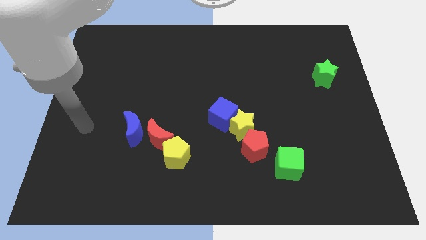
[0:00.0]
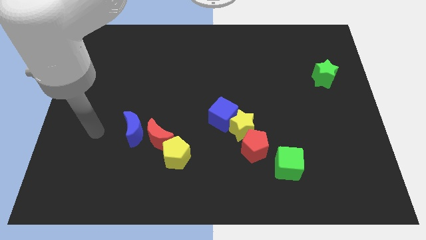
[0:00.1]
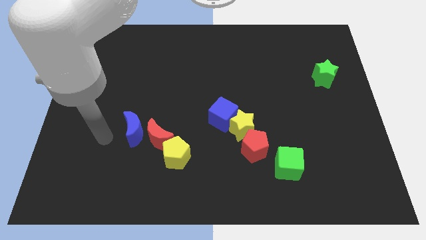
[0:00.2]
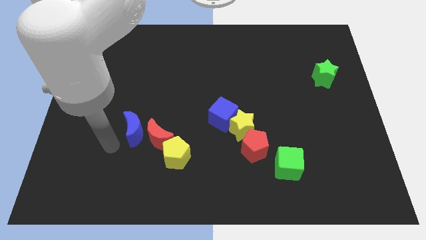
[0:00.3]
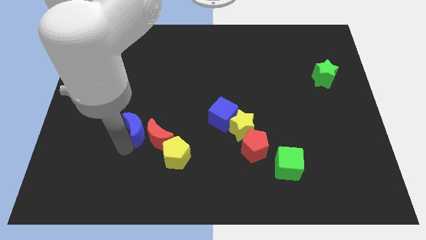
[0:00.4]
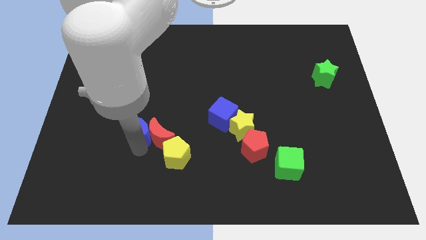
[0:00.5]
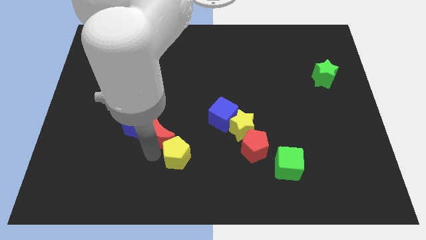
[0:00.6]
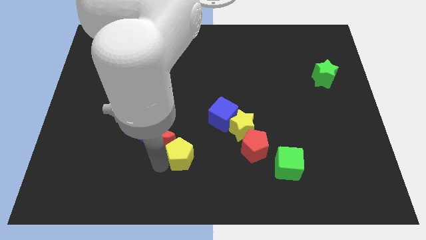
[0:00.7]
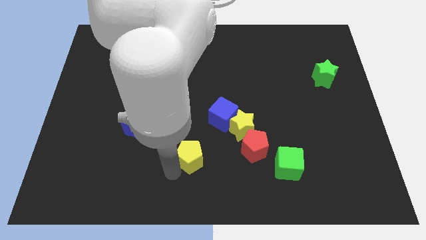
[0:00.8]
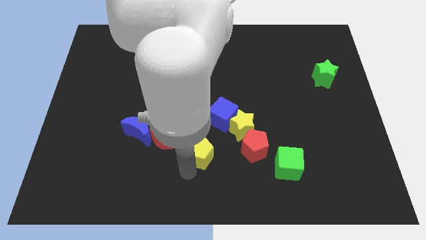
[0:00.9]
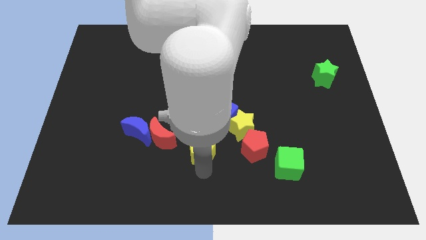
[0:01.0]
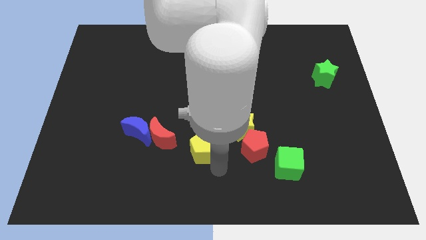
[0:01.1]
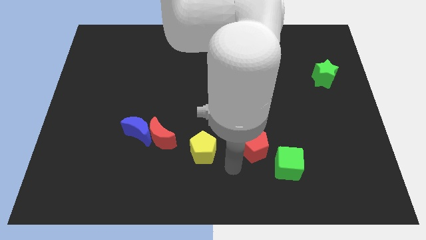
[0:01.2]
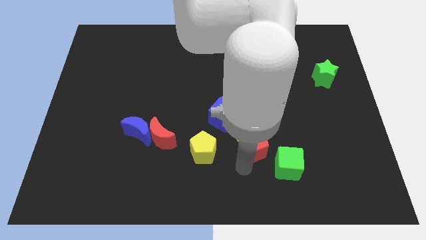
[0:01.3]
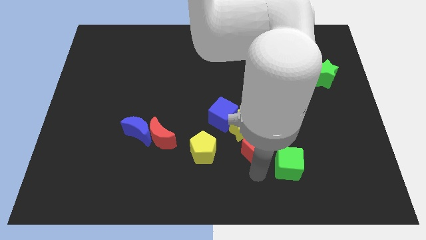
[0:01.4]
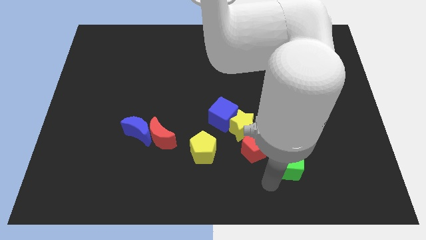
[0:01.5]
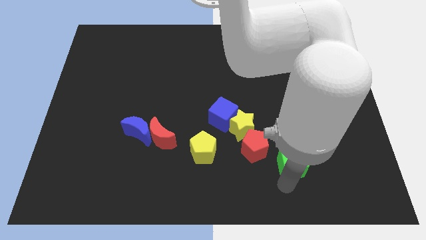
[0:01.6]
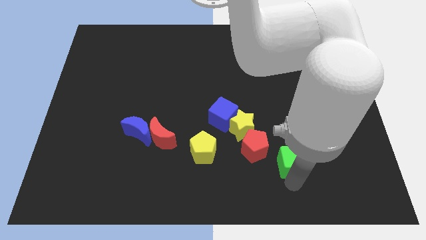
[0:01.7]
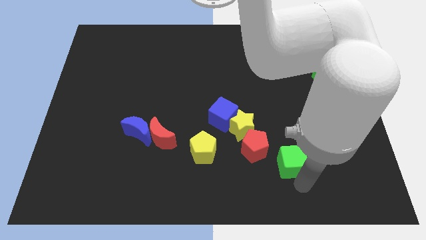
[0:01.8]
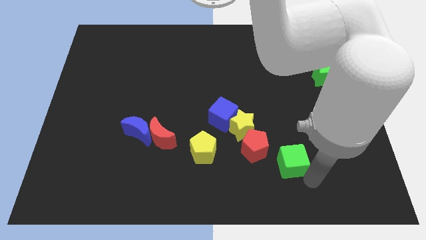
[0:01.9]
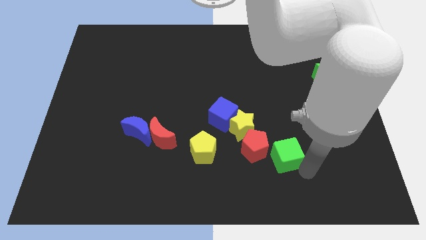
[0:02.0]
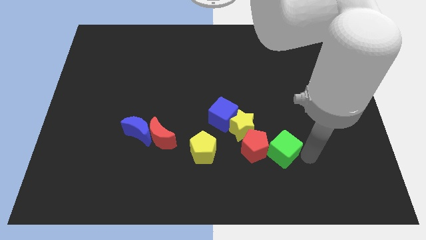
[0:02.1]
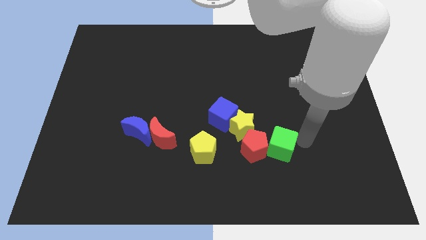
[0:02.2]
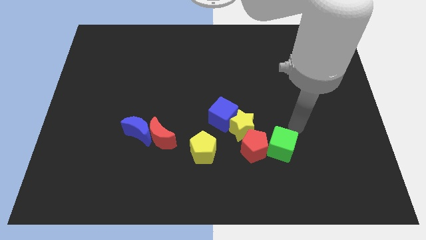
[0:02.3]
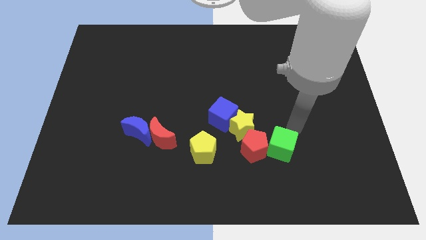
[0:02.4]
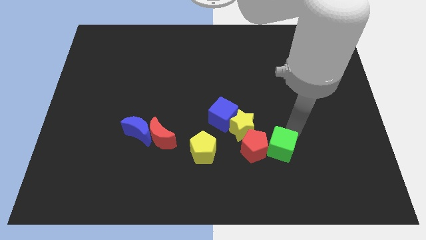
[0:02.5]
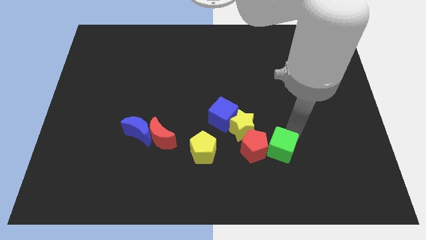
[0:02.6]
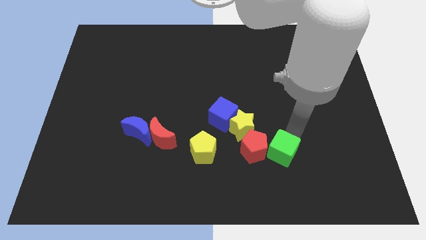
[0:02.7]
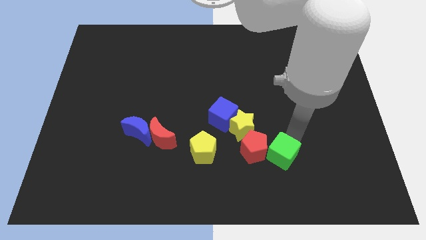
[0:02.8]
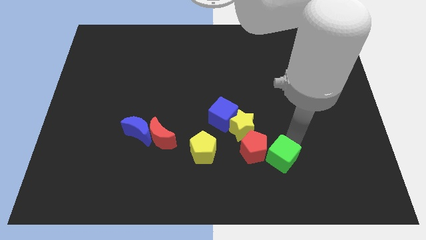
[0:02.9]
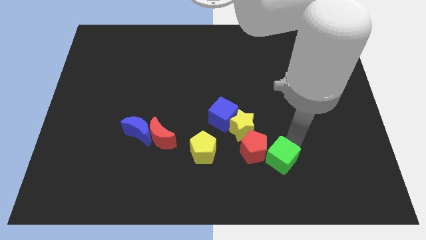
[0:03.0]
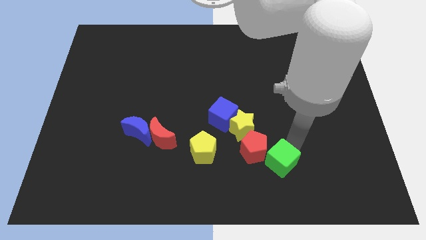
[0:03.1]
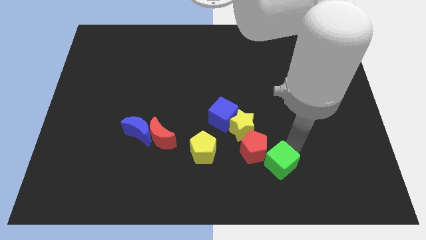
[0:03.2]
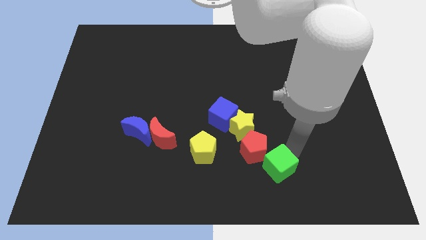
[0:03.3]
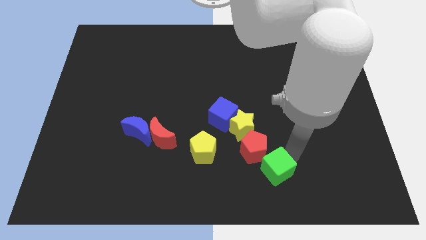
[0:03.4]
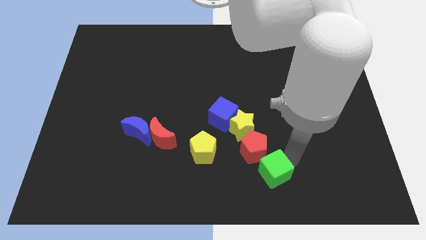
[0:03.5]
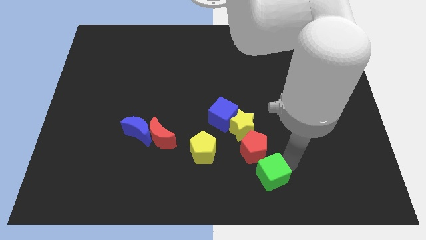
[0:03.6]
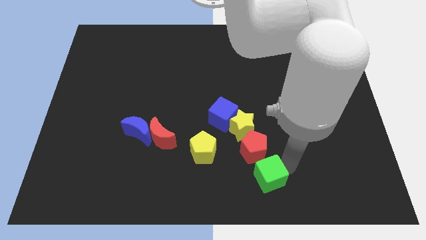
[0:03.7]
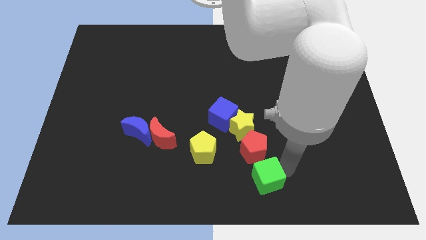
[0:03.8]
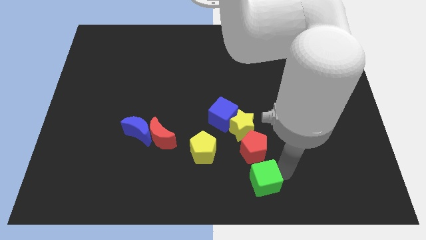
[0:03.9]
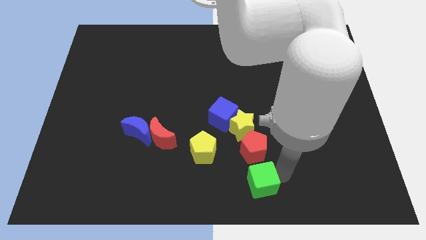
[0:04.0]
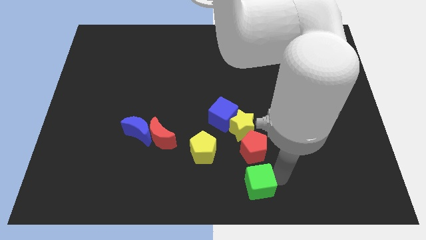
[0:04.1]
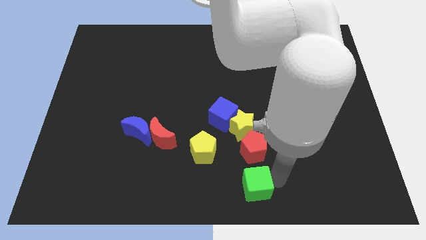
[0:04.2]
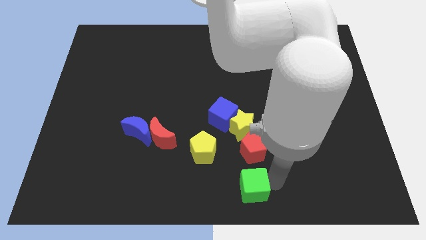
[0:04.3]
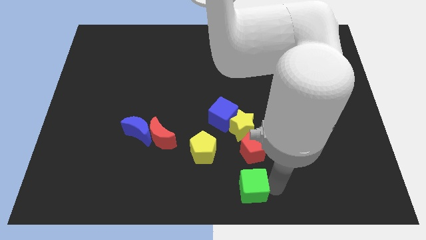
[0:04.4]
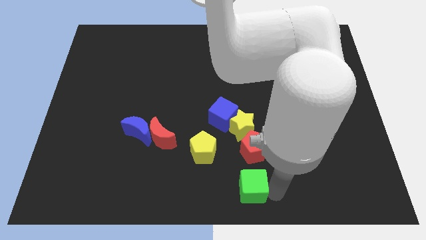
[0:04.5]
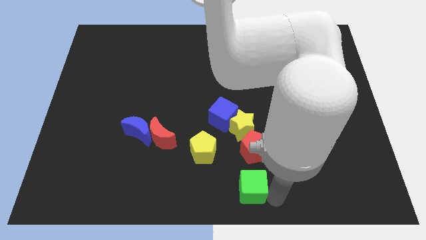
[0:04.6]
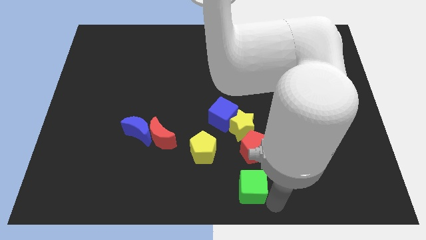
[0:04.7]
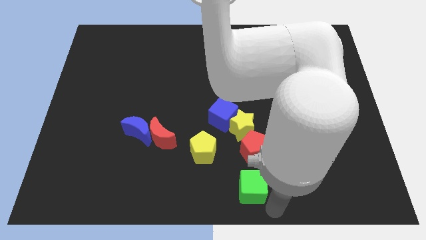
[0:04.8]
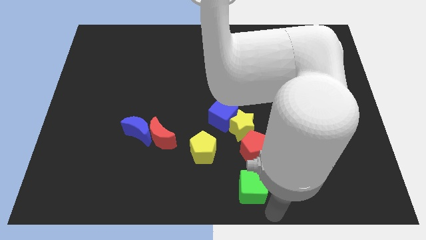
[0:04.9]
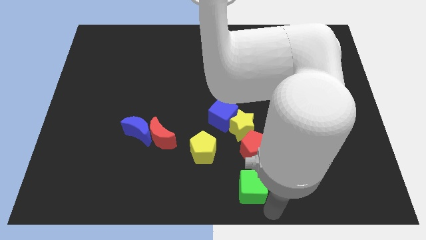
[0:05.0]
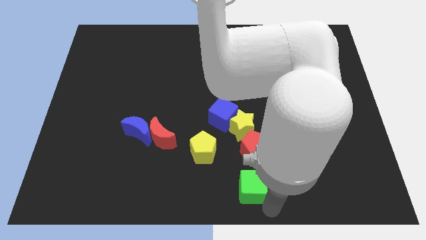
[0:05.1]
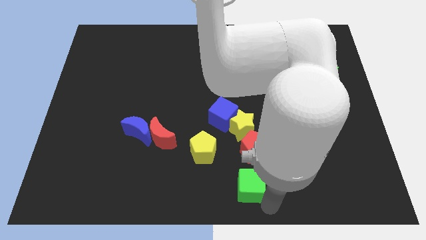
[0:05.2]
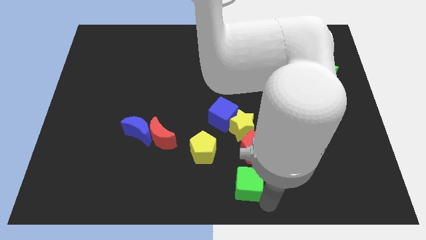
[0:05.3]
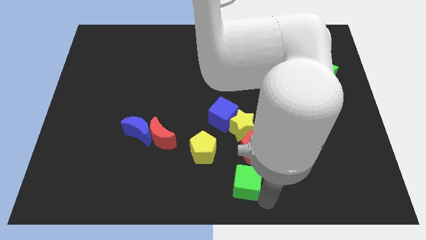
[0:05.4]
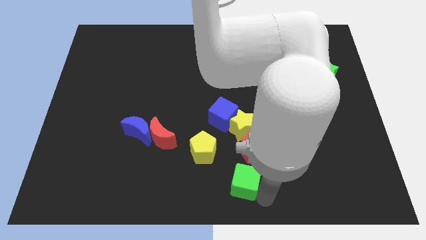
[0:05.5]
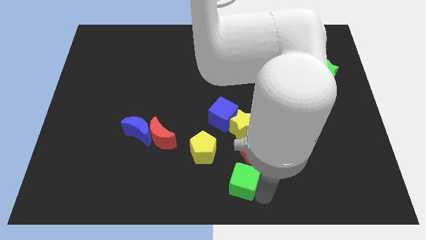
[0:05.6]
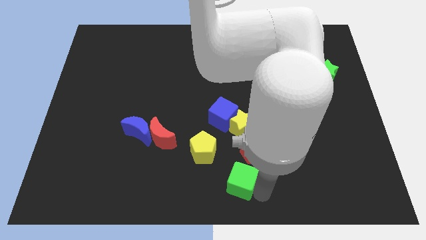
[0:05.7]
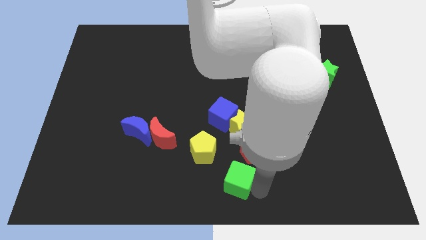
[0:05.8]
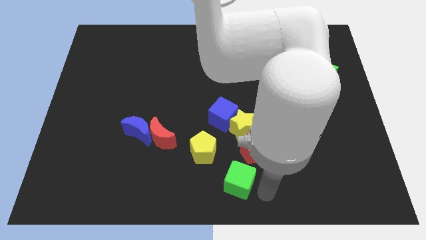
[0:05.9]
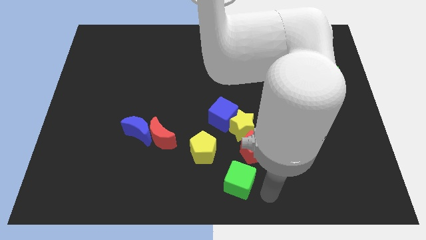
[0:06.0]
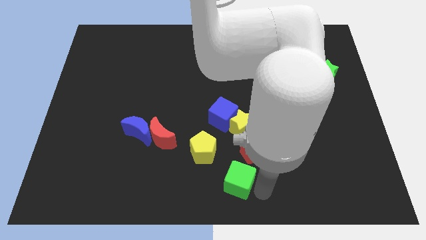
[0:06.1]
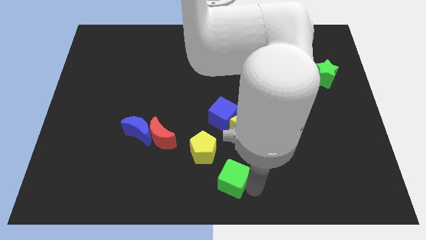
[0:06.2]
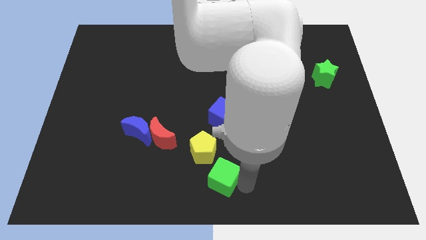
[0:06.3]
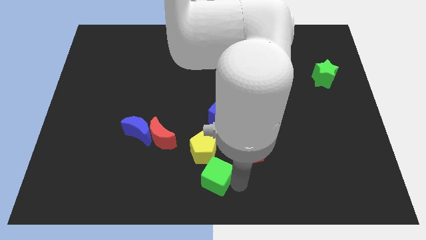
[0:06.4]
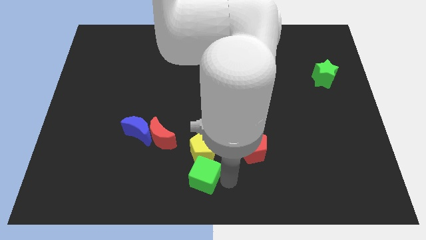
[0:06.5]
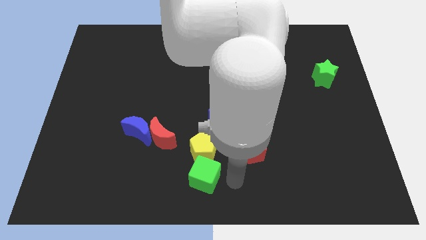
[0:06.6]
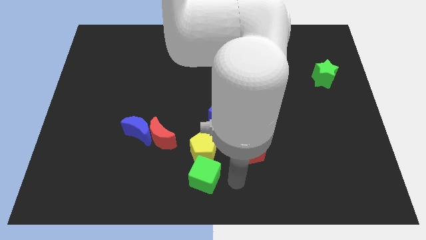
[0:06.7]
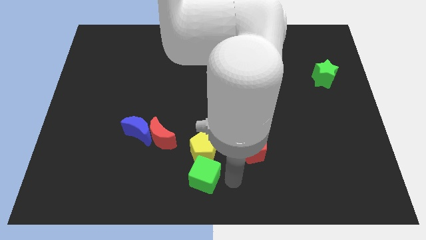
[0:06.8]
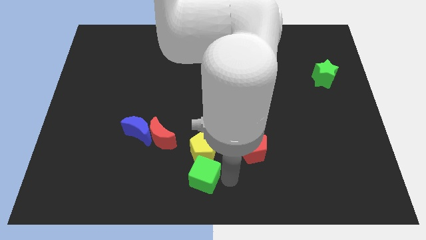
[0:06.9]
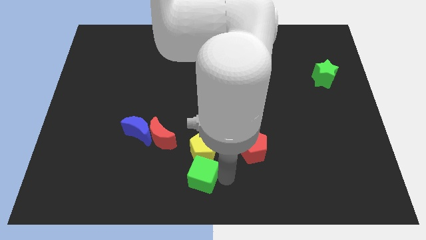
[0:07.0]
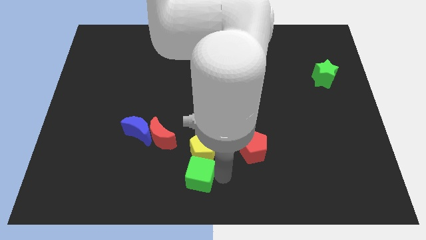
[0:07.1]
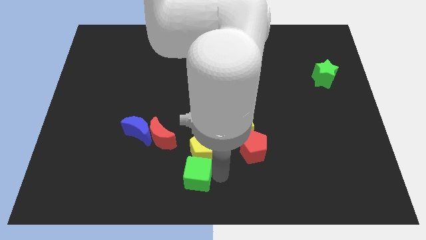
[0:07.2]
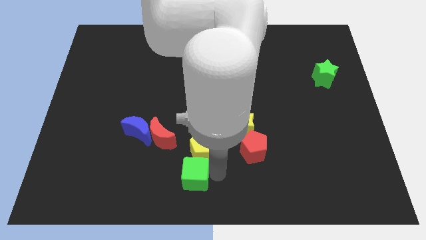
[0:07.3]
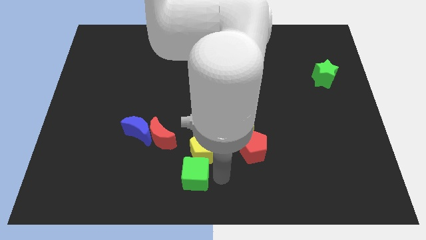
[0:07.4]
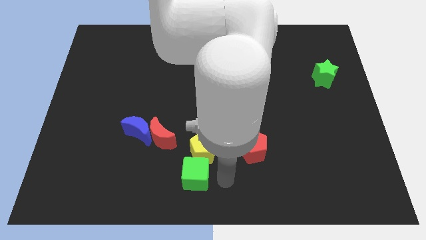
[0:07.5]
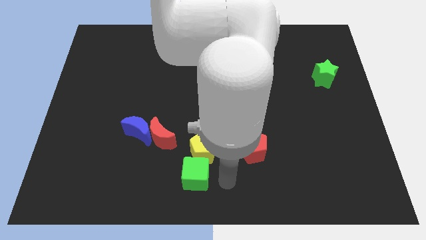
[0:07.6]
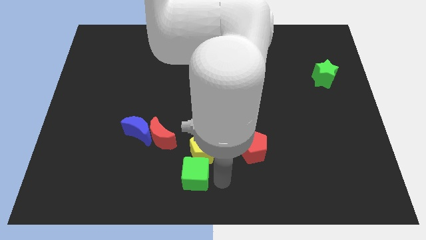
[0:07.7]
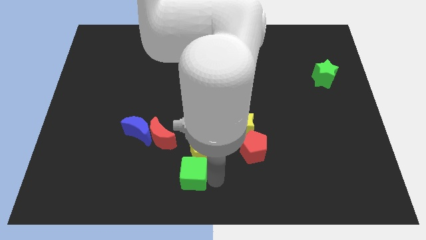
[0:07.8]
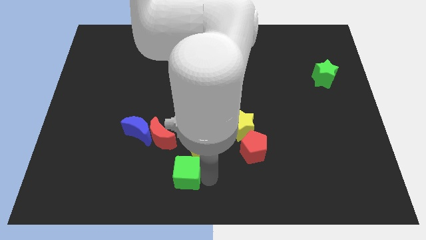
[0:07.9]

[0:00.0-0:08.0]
slide the green cube left

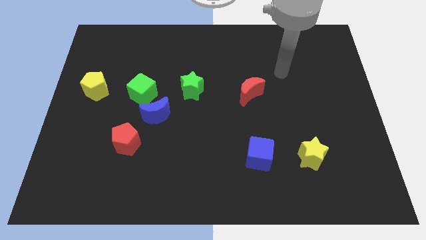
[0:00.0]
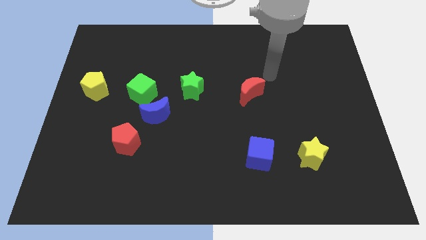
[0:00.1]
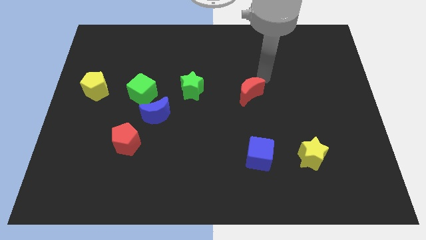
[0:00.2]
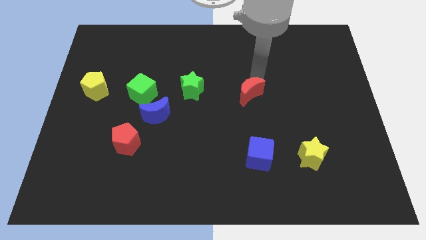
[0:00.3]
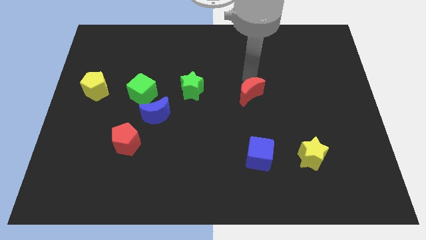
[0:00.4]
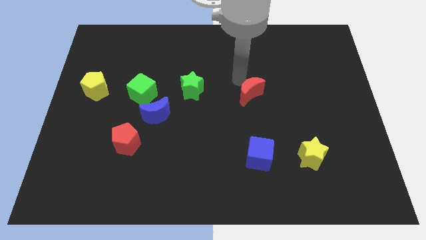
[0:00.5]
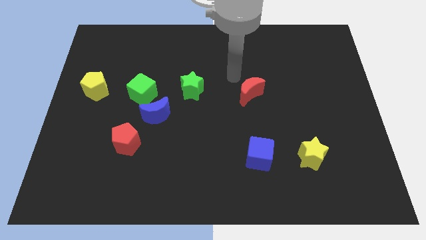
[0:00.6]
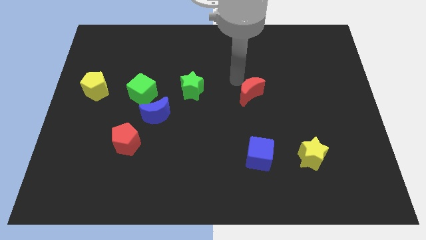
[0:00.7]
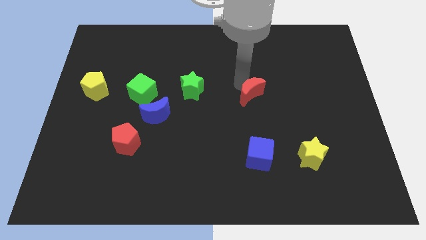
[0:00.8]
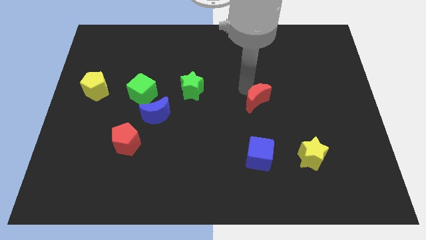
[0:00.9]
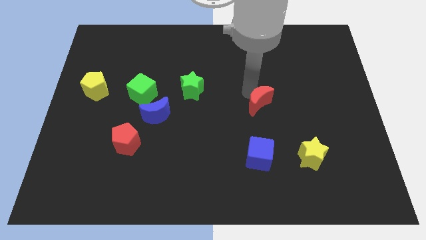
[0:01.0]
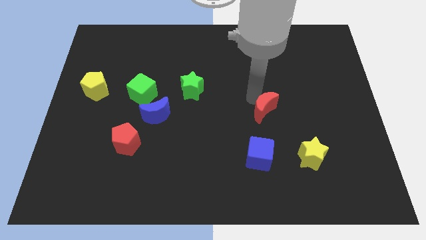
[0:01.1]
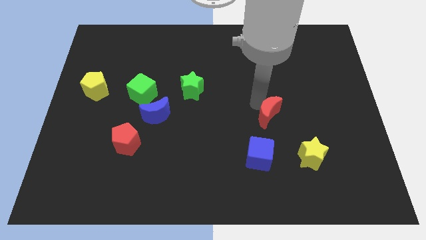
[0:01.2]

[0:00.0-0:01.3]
slightly slide the red moon diagonally downwards and to the right
